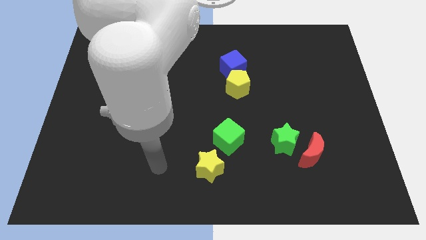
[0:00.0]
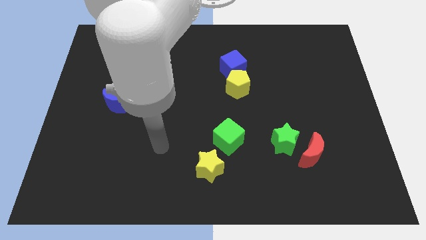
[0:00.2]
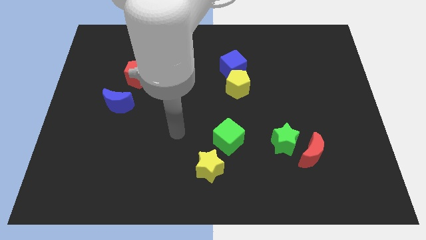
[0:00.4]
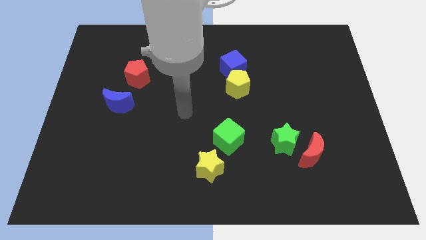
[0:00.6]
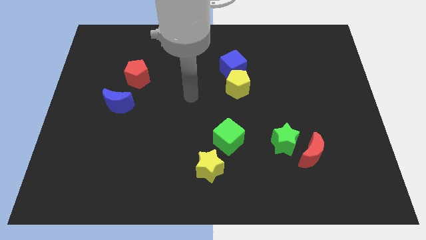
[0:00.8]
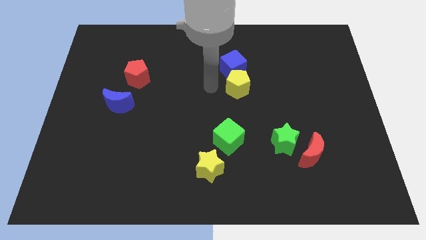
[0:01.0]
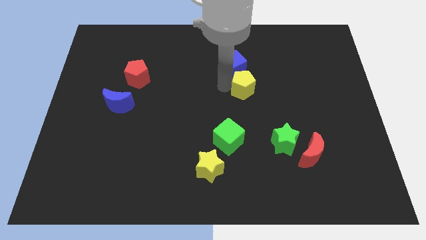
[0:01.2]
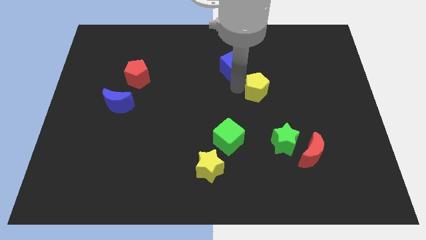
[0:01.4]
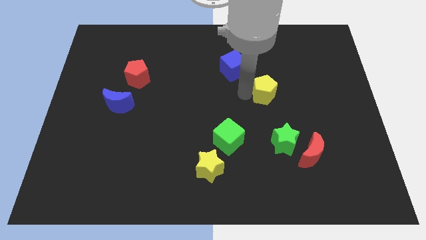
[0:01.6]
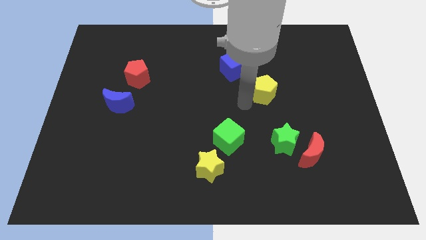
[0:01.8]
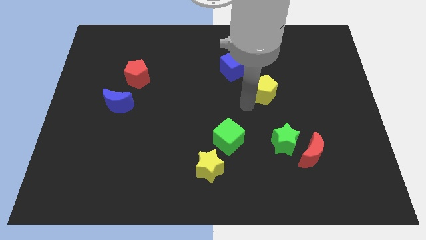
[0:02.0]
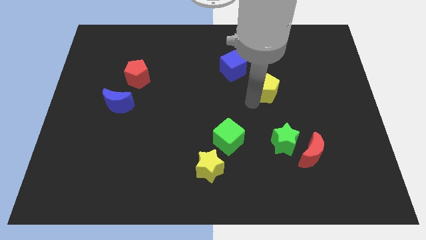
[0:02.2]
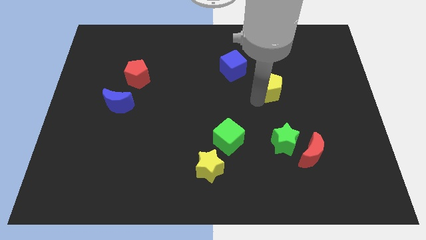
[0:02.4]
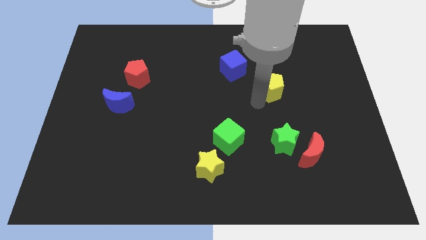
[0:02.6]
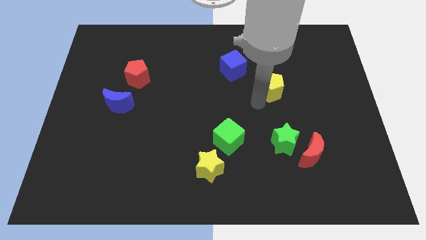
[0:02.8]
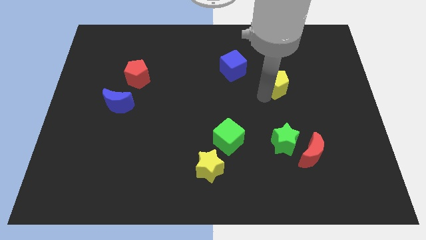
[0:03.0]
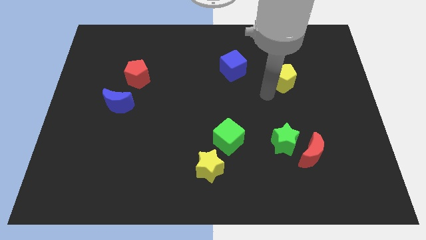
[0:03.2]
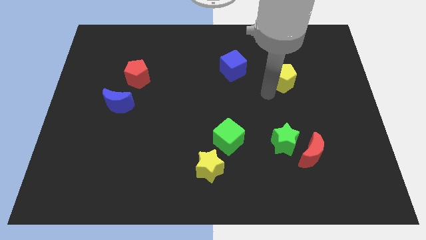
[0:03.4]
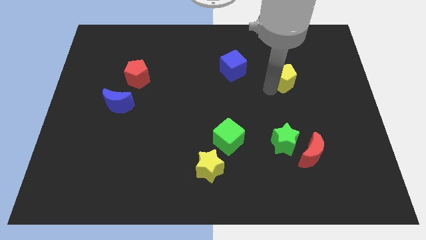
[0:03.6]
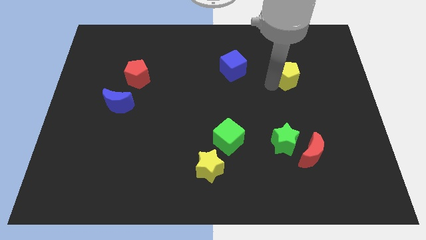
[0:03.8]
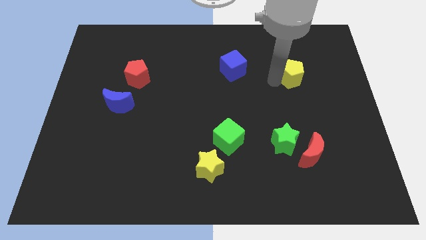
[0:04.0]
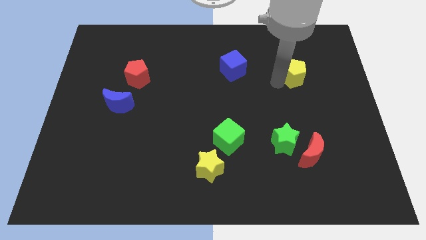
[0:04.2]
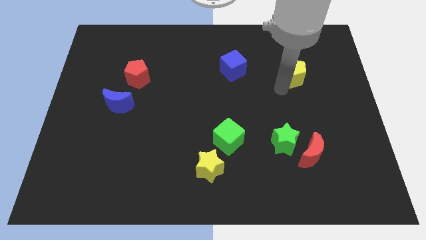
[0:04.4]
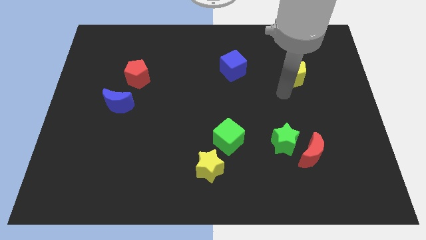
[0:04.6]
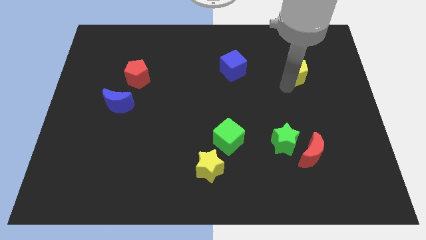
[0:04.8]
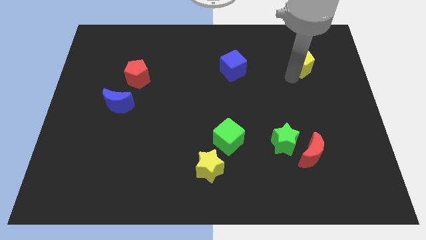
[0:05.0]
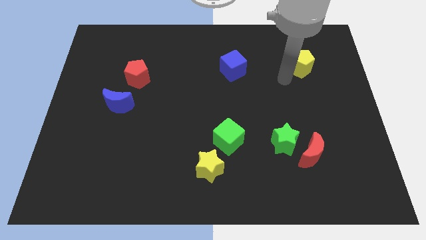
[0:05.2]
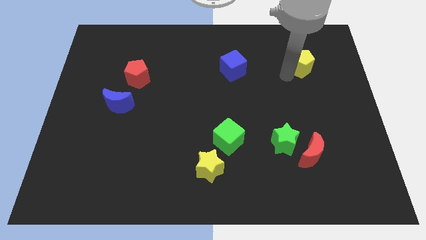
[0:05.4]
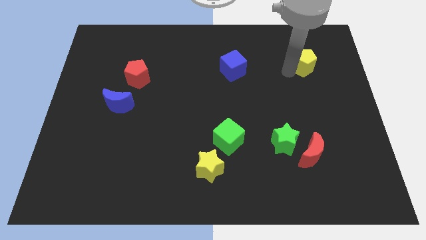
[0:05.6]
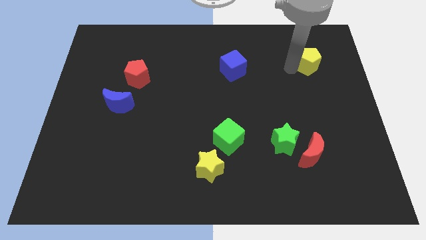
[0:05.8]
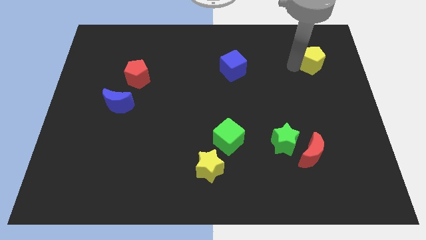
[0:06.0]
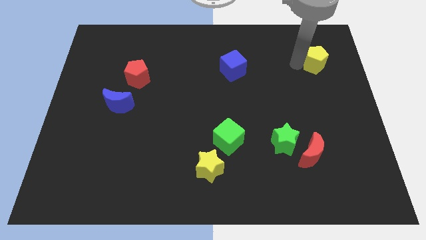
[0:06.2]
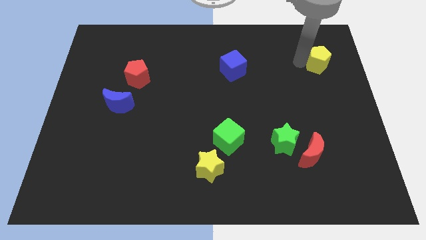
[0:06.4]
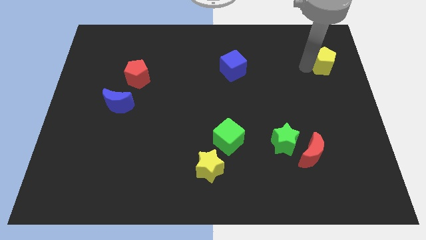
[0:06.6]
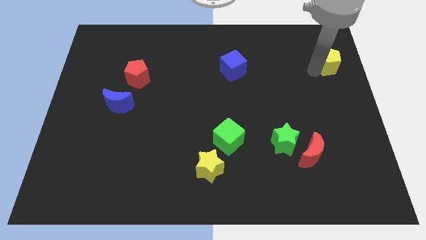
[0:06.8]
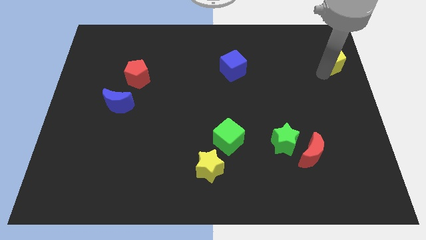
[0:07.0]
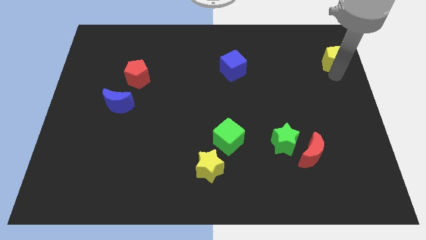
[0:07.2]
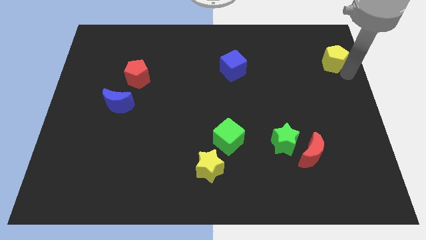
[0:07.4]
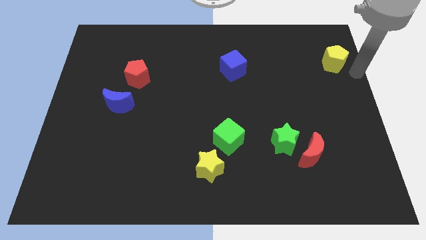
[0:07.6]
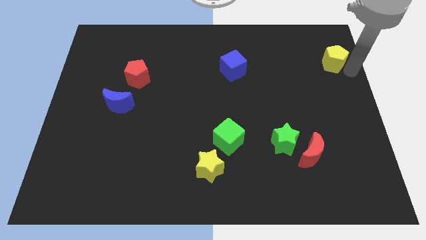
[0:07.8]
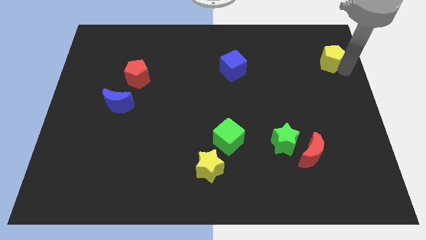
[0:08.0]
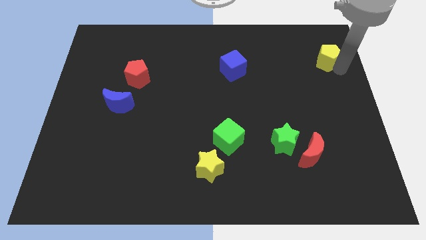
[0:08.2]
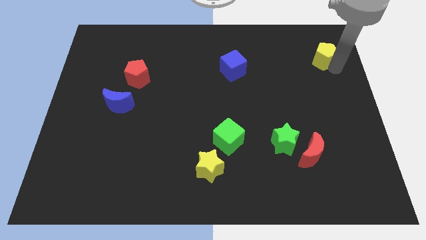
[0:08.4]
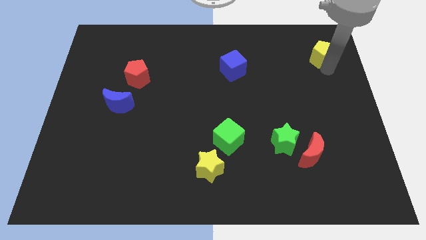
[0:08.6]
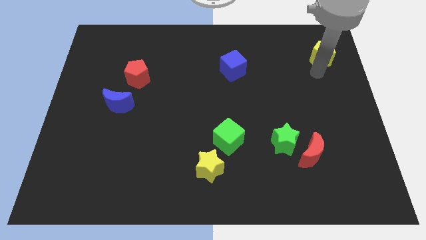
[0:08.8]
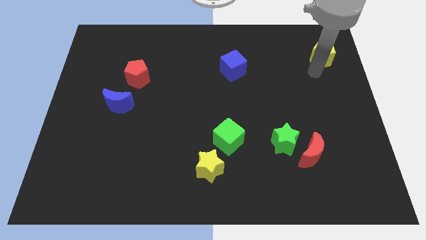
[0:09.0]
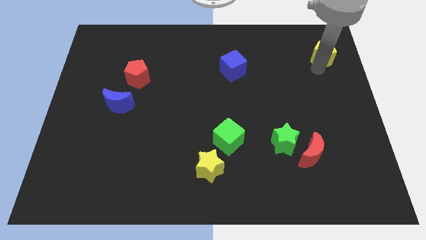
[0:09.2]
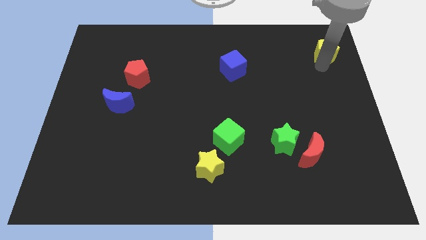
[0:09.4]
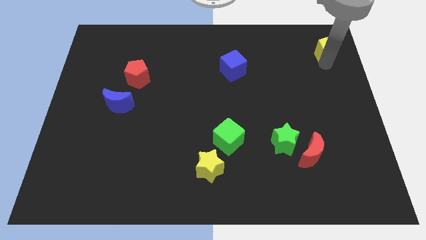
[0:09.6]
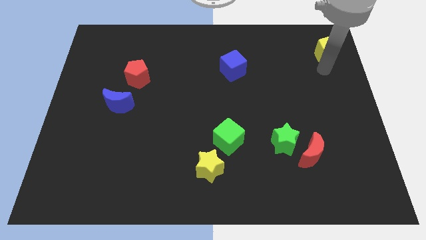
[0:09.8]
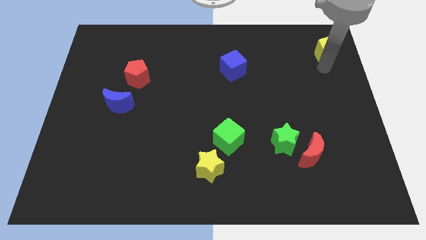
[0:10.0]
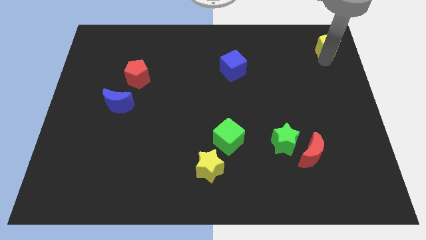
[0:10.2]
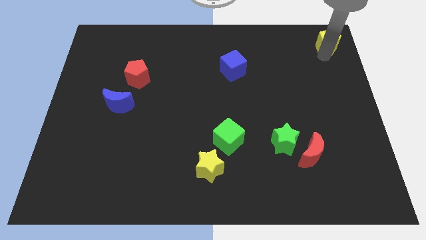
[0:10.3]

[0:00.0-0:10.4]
put the yellow pentagon to the upper right corner

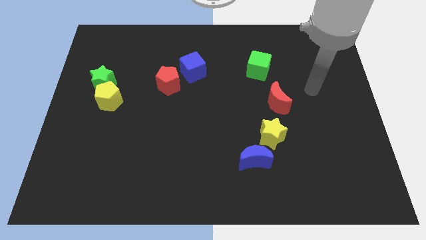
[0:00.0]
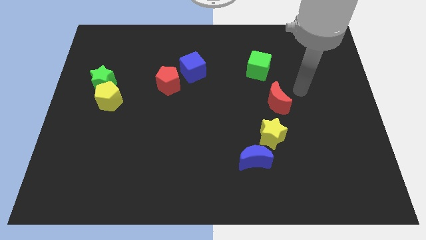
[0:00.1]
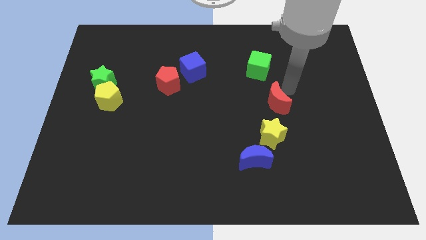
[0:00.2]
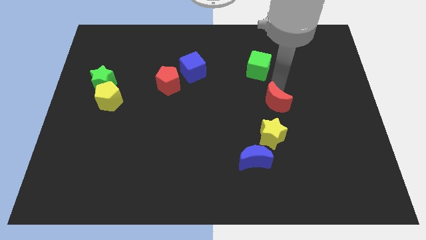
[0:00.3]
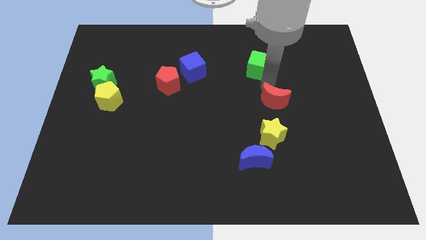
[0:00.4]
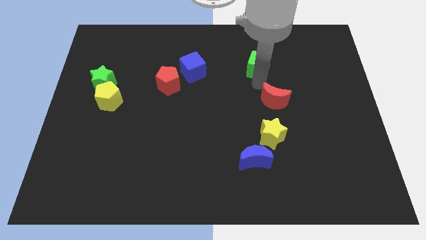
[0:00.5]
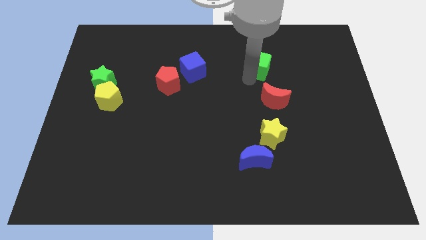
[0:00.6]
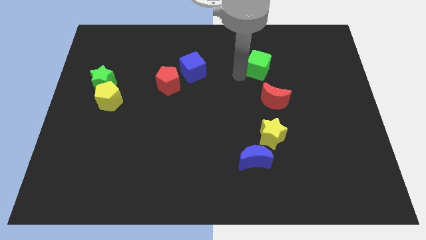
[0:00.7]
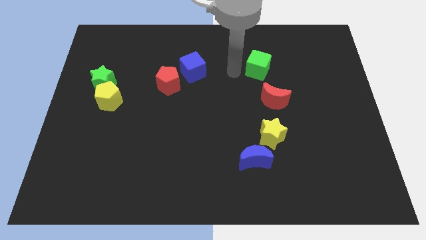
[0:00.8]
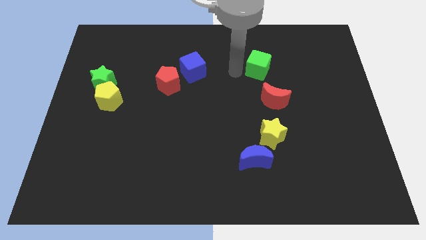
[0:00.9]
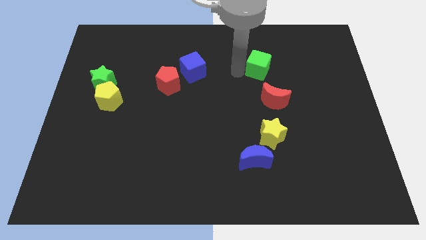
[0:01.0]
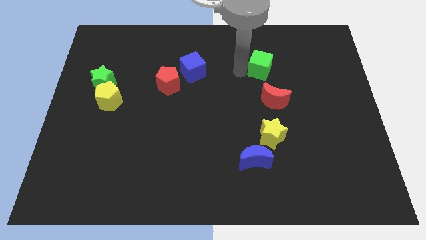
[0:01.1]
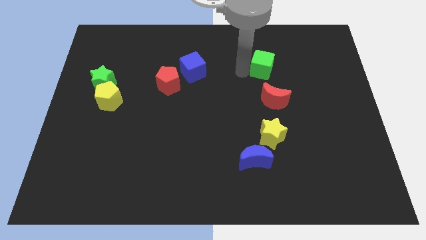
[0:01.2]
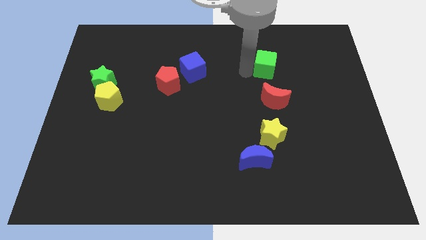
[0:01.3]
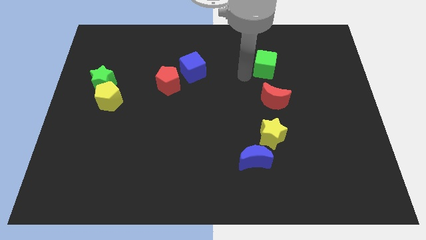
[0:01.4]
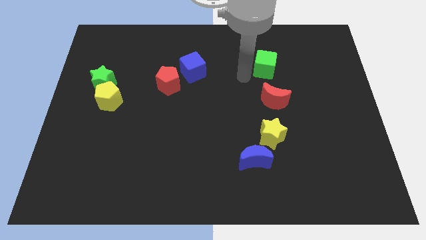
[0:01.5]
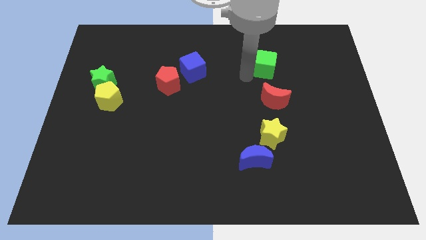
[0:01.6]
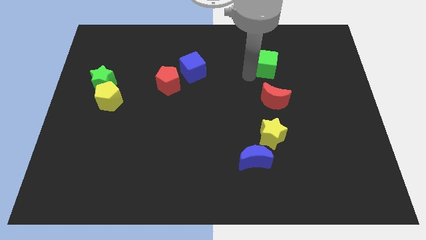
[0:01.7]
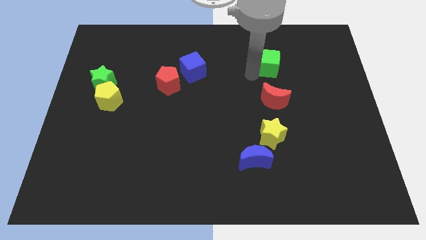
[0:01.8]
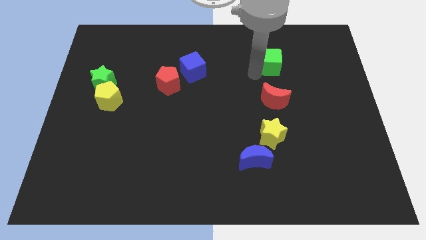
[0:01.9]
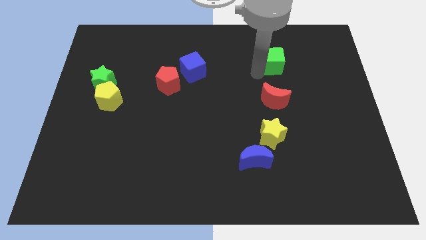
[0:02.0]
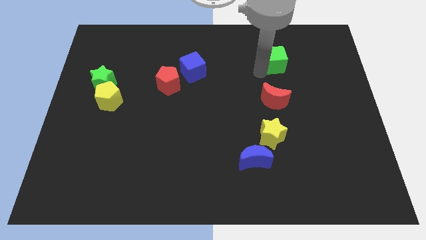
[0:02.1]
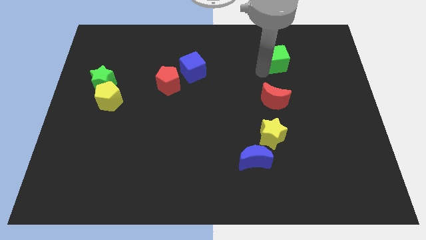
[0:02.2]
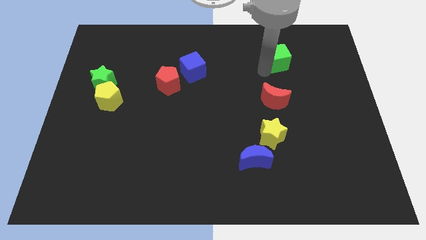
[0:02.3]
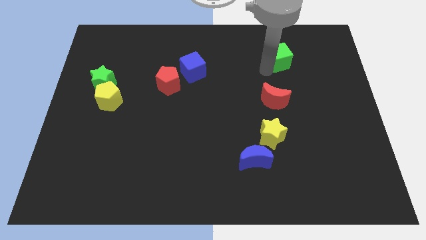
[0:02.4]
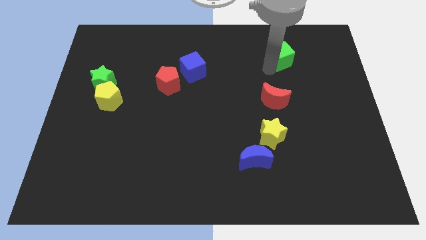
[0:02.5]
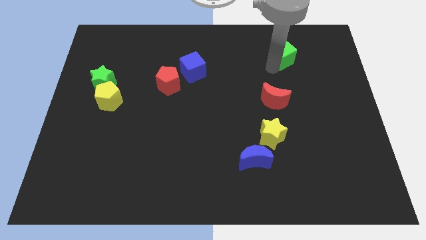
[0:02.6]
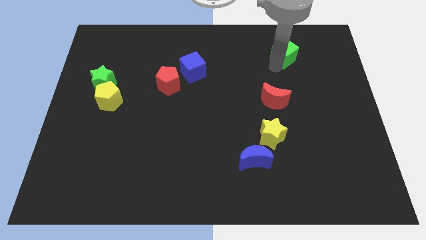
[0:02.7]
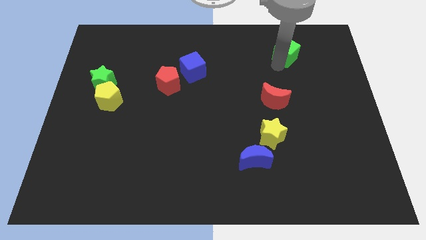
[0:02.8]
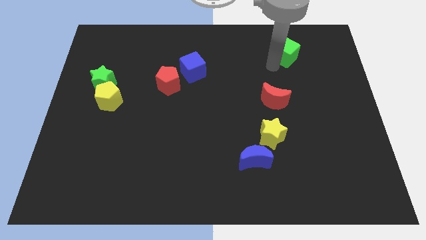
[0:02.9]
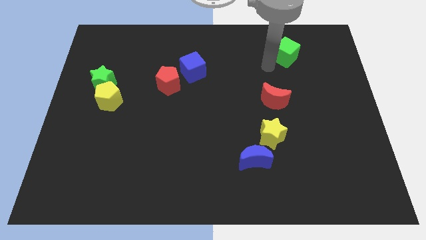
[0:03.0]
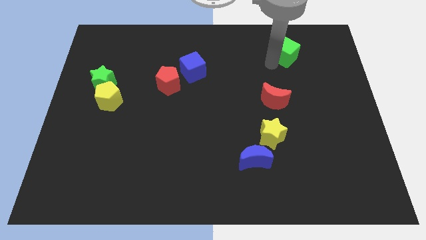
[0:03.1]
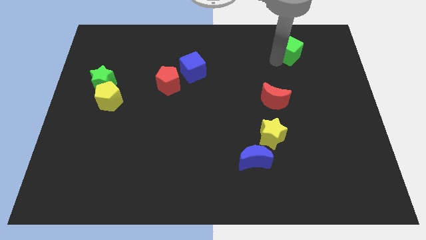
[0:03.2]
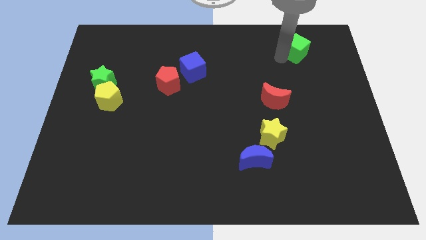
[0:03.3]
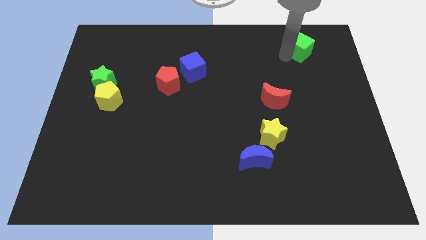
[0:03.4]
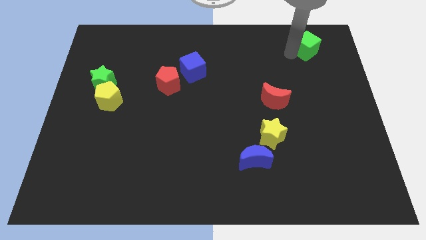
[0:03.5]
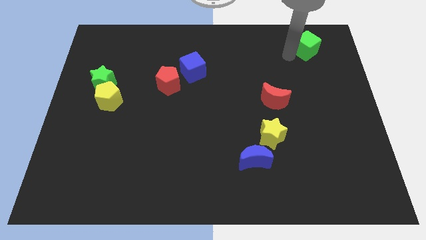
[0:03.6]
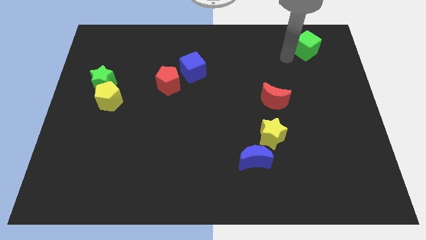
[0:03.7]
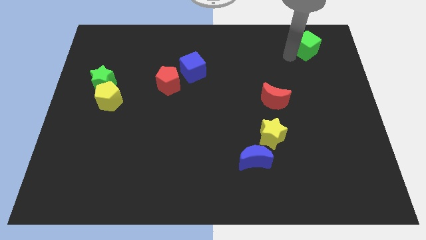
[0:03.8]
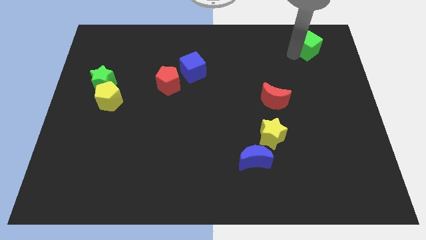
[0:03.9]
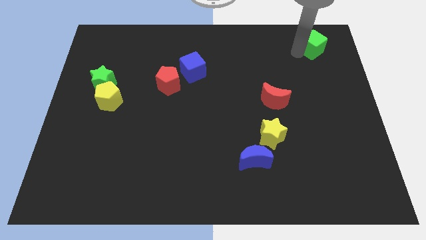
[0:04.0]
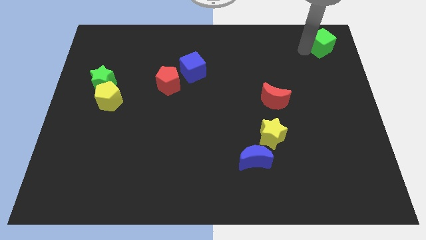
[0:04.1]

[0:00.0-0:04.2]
put the green cube to the upper right corner
